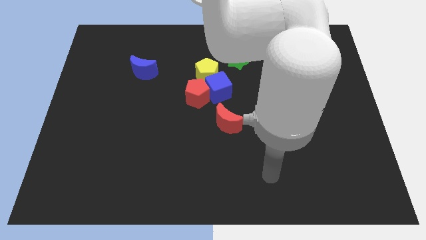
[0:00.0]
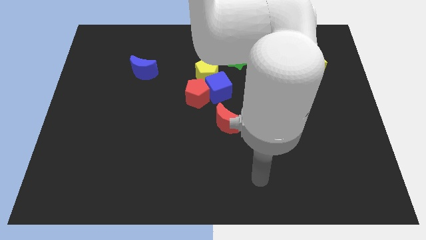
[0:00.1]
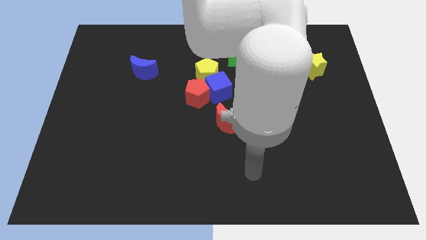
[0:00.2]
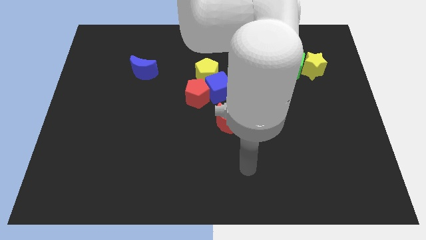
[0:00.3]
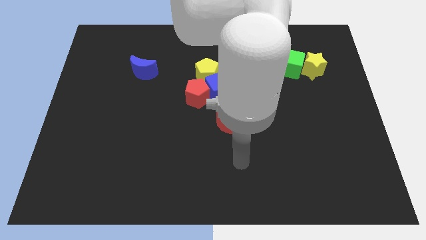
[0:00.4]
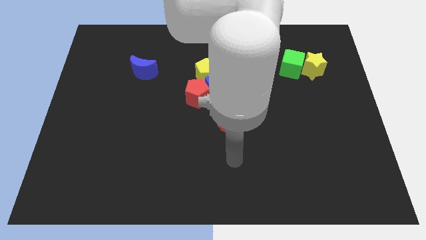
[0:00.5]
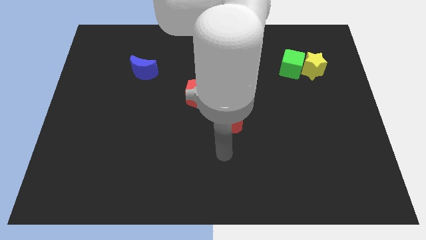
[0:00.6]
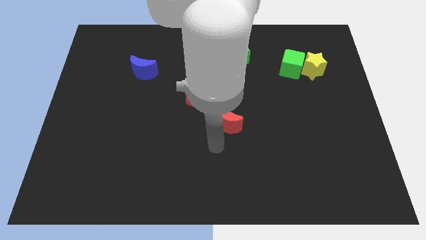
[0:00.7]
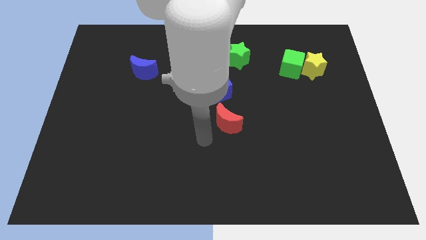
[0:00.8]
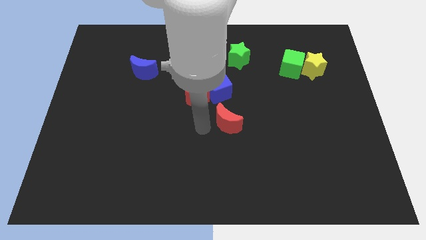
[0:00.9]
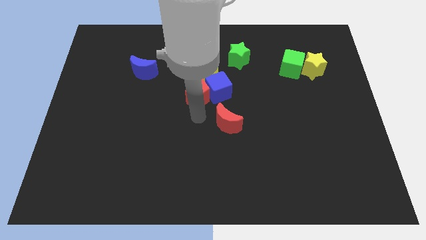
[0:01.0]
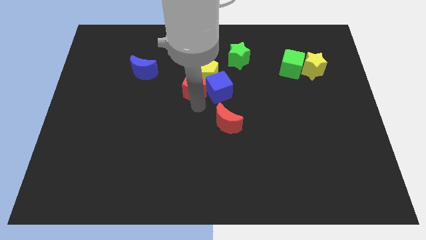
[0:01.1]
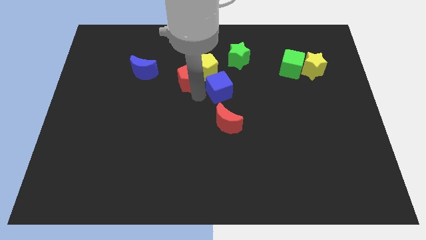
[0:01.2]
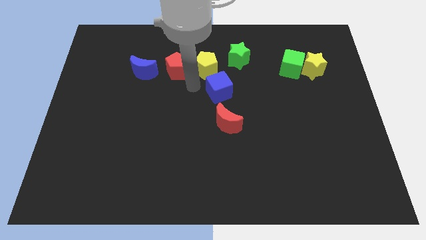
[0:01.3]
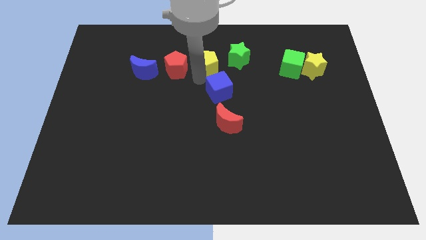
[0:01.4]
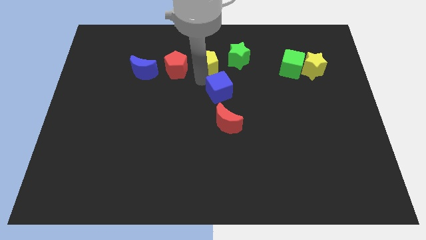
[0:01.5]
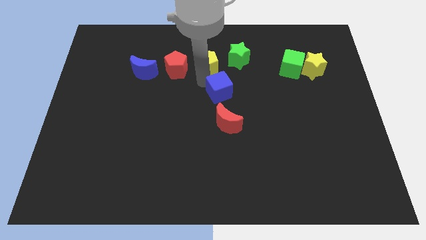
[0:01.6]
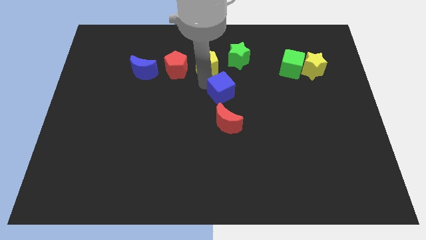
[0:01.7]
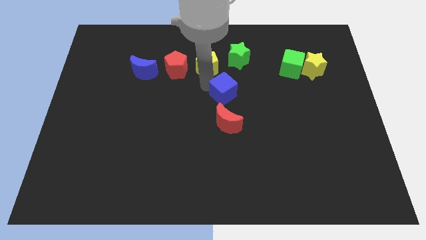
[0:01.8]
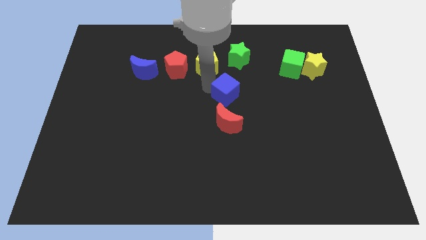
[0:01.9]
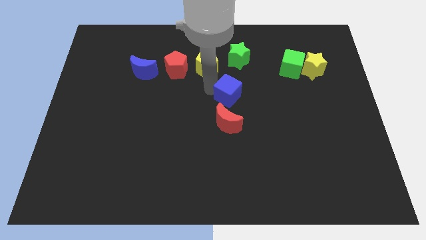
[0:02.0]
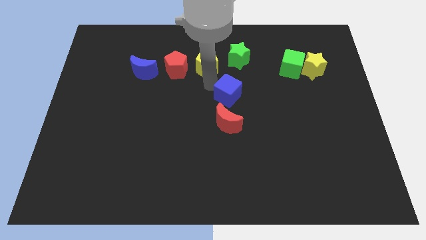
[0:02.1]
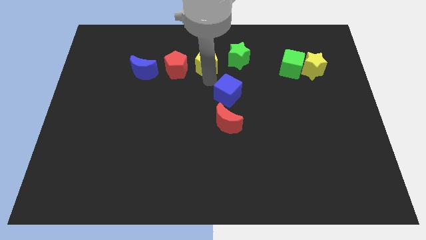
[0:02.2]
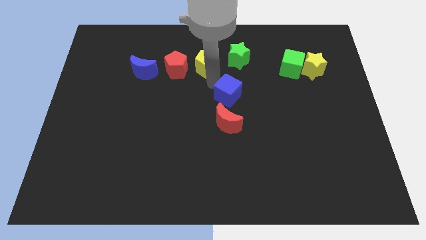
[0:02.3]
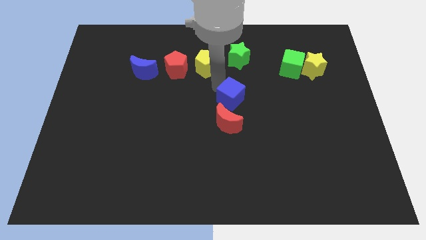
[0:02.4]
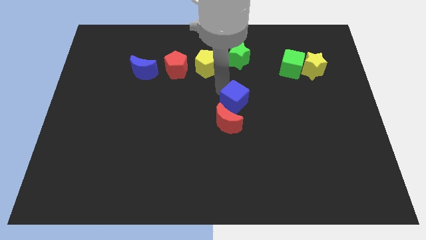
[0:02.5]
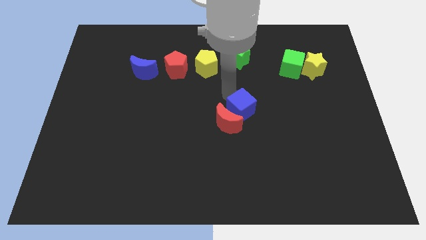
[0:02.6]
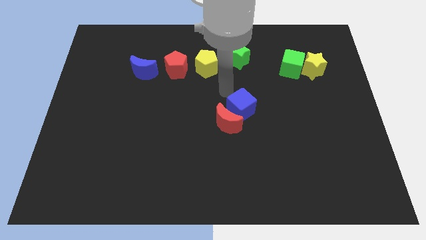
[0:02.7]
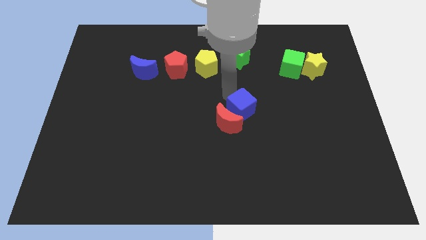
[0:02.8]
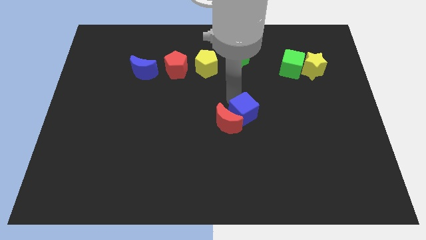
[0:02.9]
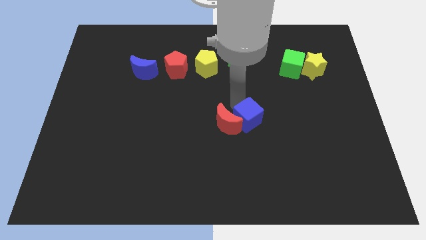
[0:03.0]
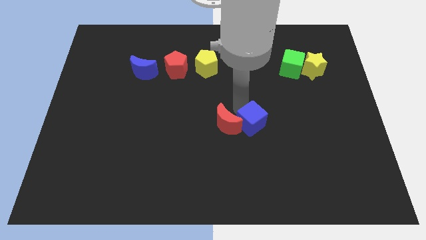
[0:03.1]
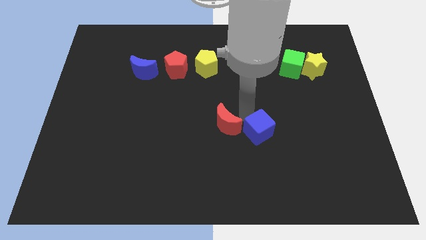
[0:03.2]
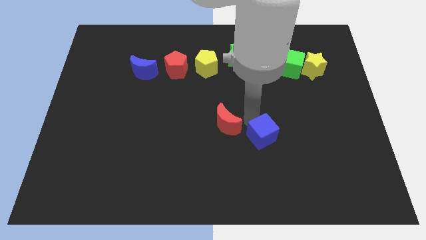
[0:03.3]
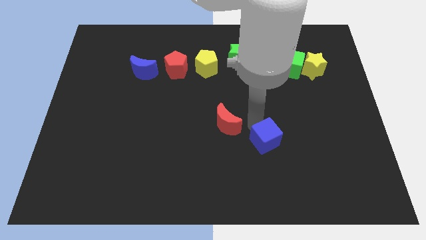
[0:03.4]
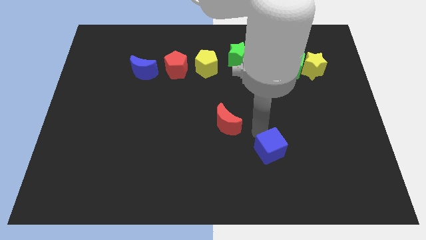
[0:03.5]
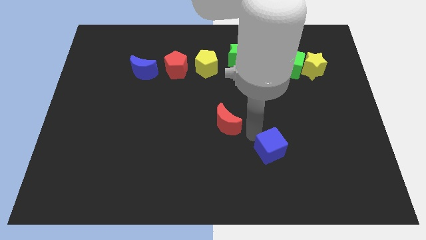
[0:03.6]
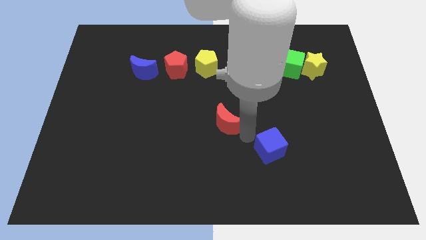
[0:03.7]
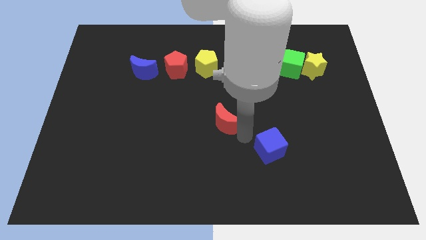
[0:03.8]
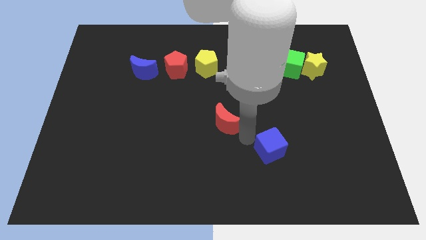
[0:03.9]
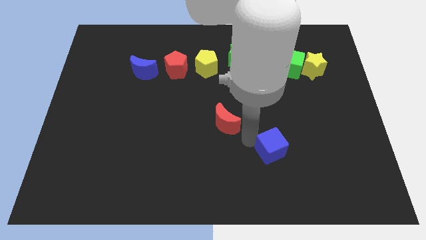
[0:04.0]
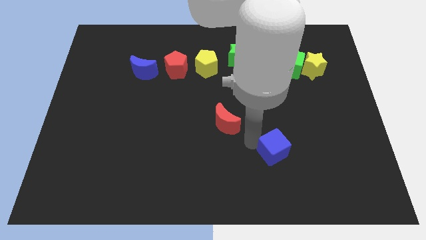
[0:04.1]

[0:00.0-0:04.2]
slide the blue cube down and to the right diagonally

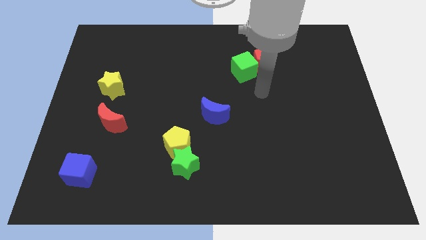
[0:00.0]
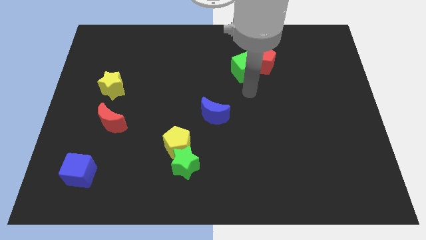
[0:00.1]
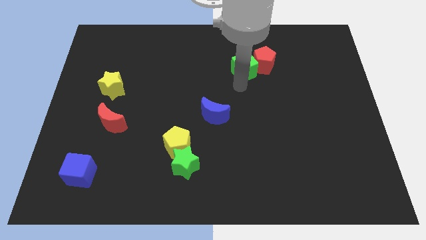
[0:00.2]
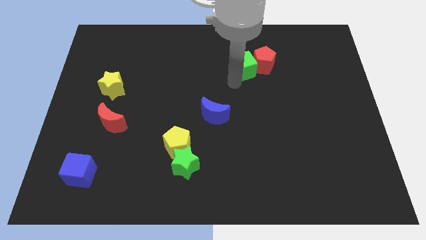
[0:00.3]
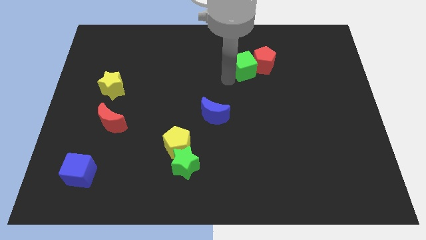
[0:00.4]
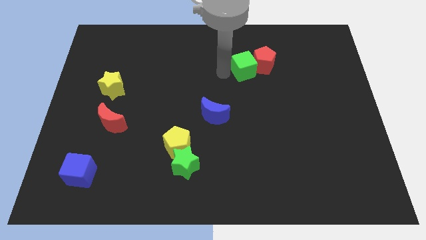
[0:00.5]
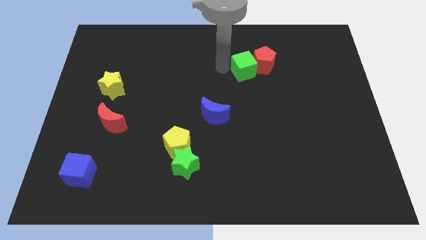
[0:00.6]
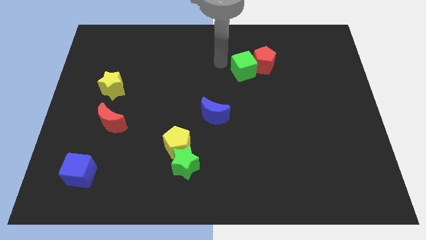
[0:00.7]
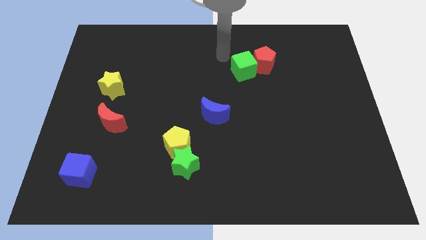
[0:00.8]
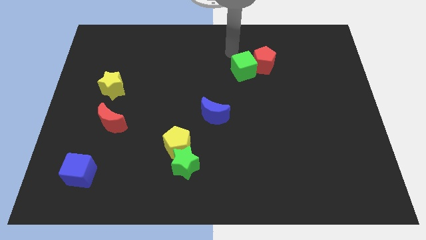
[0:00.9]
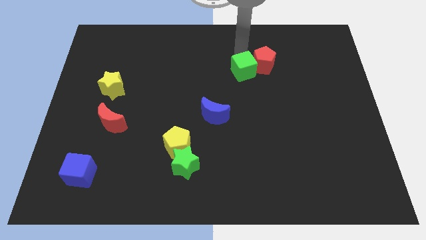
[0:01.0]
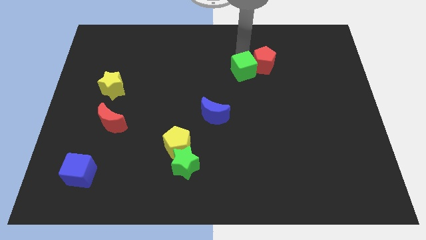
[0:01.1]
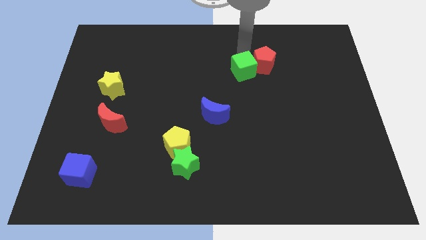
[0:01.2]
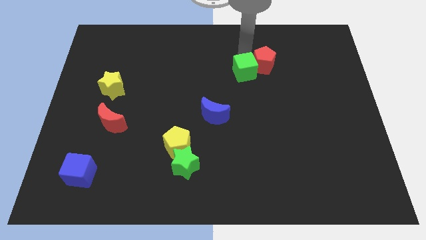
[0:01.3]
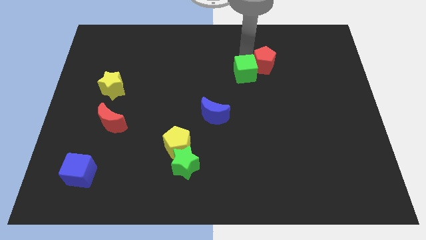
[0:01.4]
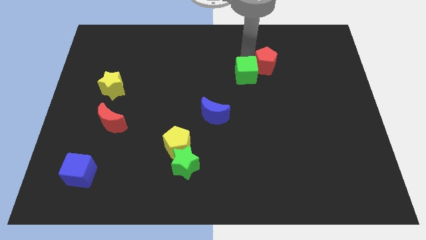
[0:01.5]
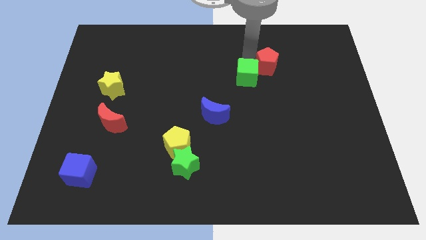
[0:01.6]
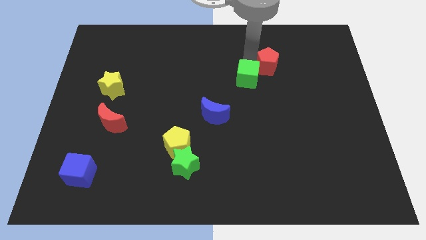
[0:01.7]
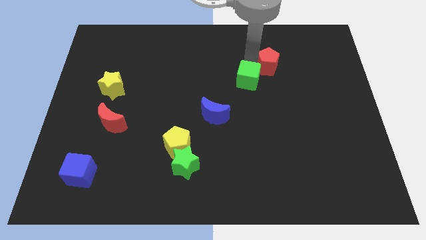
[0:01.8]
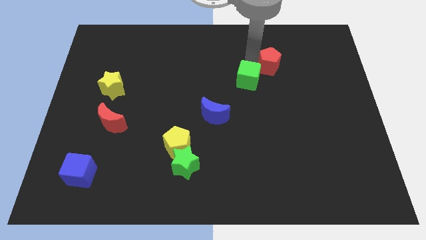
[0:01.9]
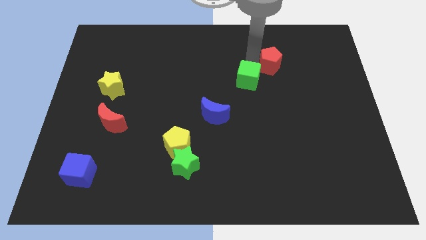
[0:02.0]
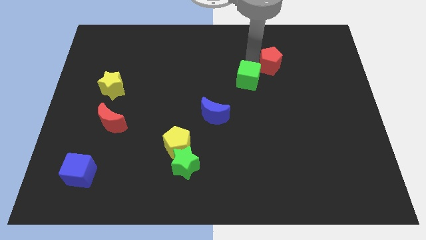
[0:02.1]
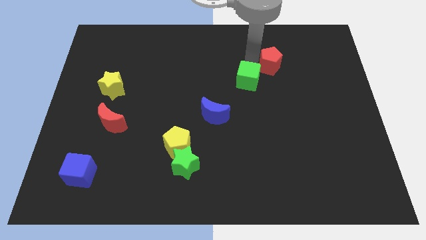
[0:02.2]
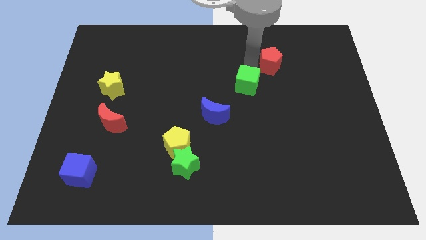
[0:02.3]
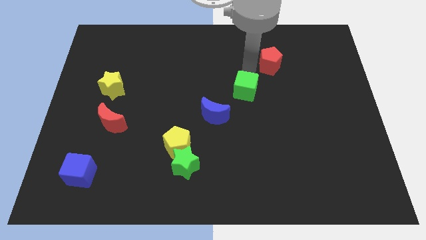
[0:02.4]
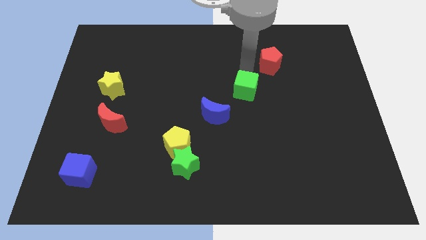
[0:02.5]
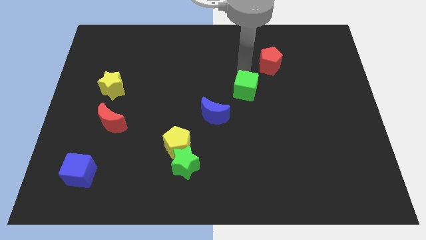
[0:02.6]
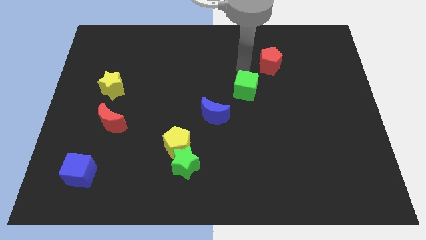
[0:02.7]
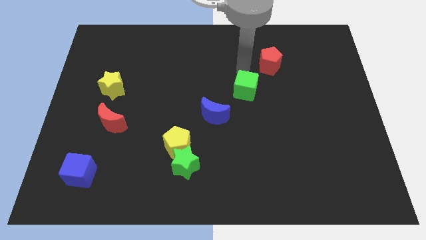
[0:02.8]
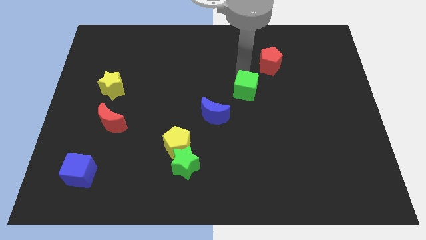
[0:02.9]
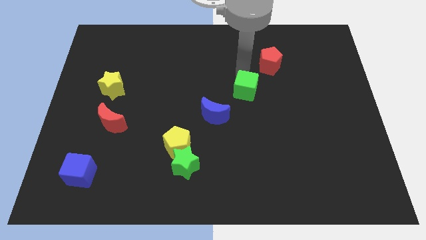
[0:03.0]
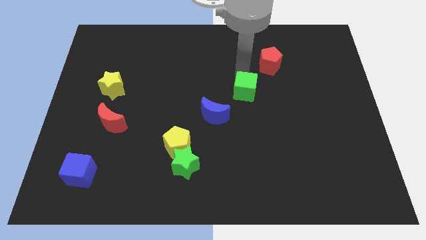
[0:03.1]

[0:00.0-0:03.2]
move the green cube down a bit

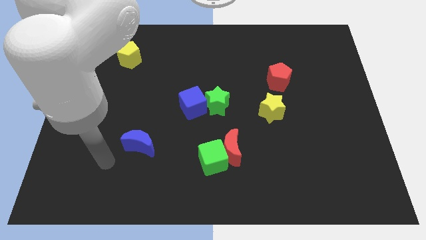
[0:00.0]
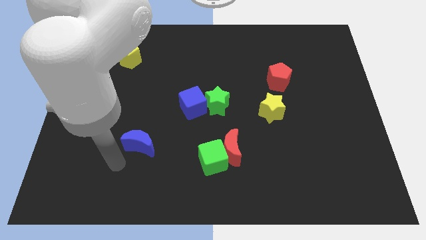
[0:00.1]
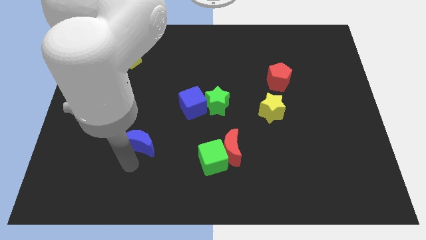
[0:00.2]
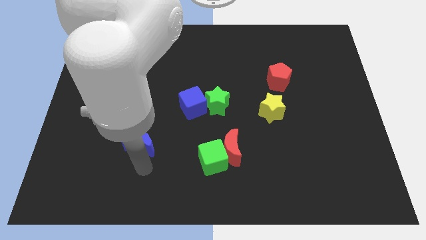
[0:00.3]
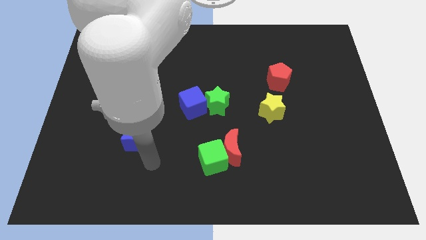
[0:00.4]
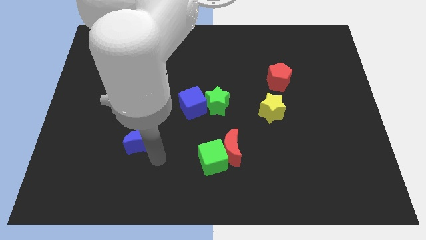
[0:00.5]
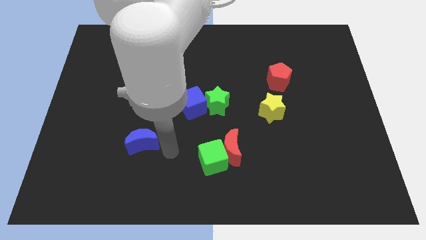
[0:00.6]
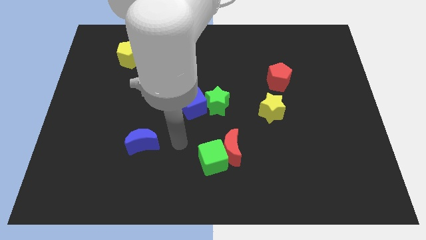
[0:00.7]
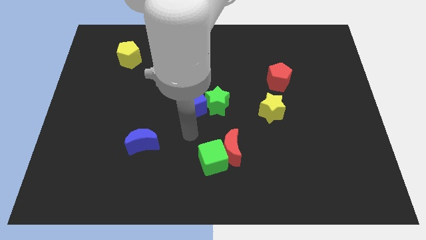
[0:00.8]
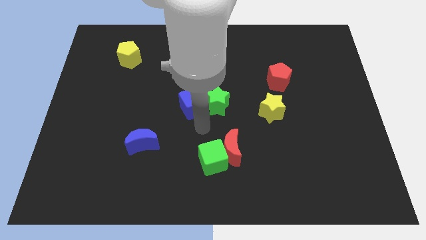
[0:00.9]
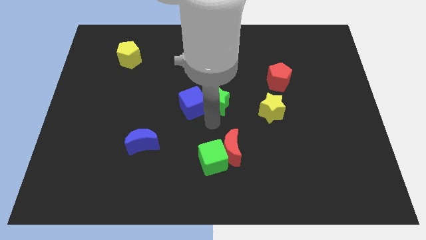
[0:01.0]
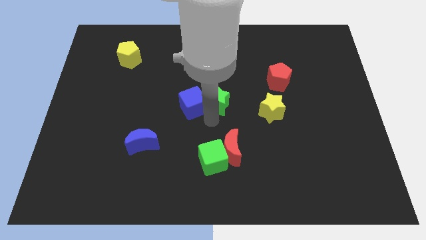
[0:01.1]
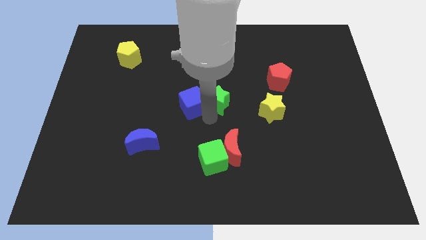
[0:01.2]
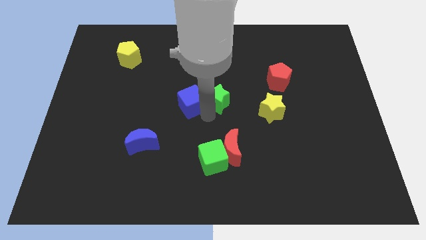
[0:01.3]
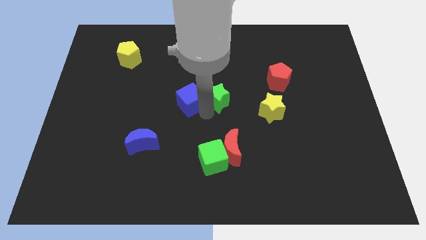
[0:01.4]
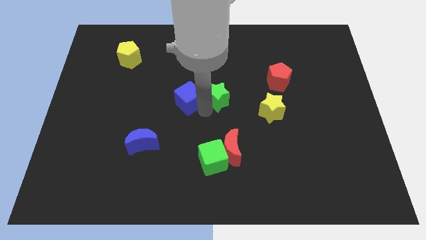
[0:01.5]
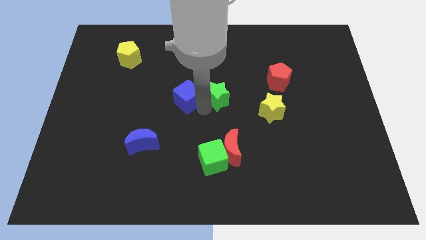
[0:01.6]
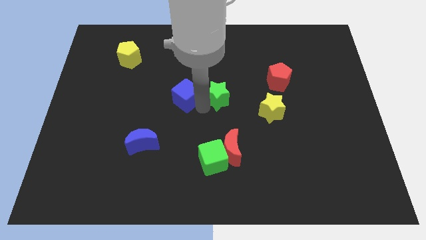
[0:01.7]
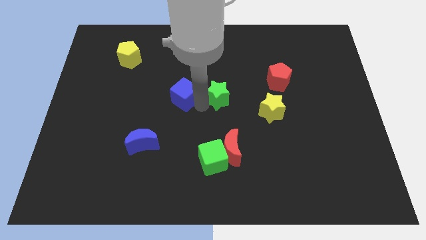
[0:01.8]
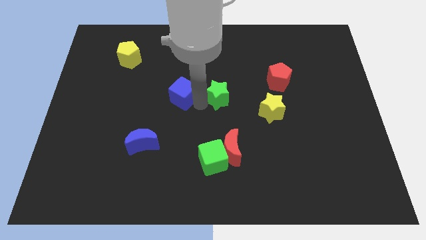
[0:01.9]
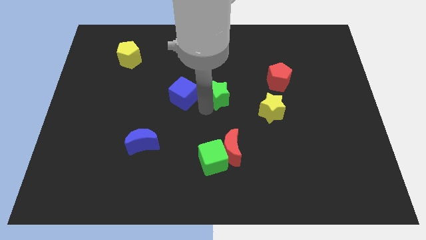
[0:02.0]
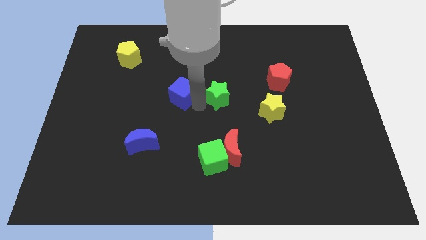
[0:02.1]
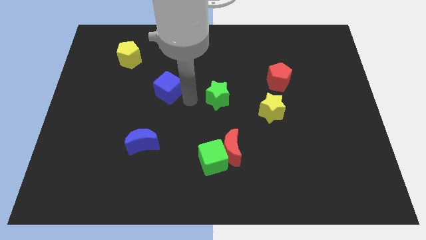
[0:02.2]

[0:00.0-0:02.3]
slide the blue cube a bit up and then left
